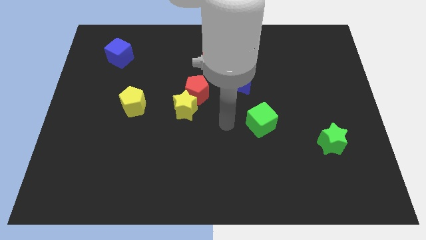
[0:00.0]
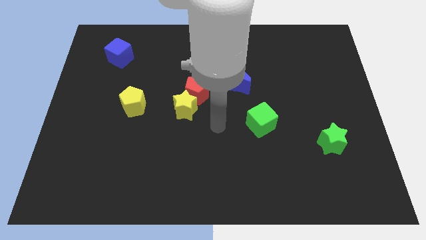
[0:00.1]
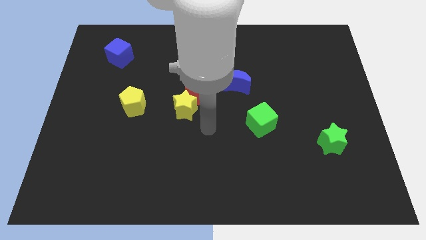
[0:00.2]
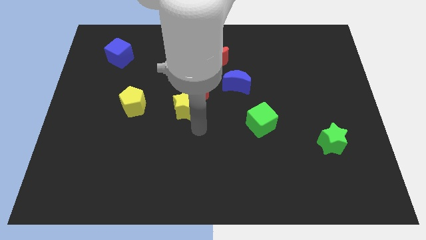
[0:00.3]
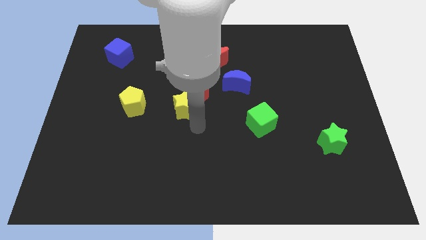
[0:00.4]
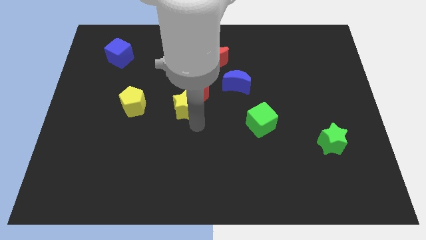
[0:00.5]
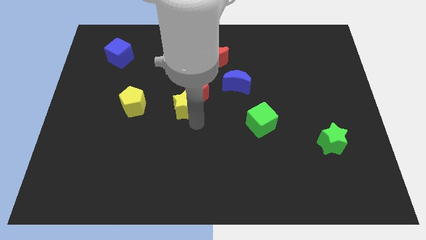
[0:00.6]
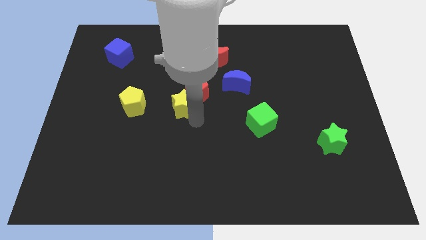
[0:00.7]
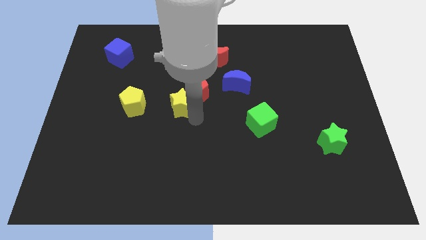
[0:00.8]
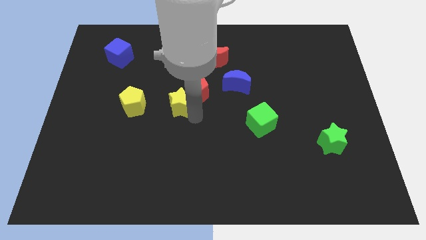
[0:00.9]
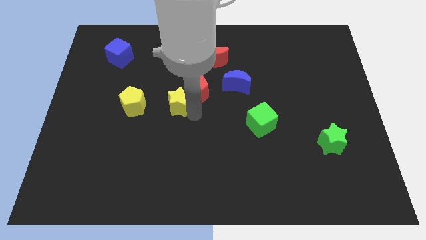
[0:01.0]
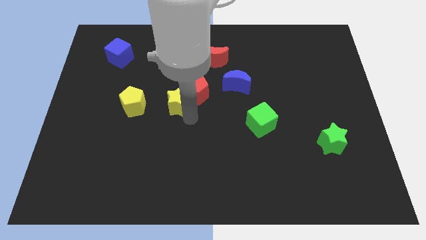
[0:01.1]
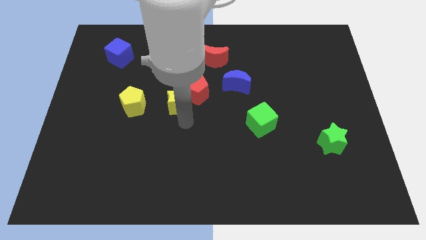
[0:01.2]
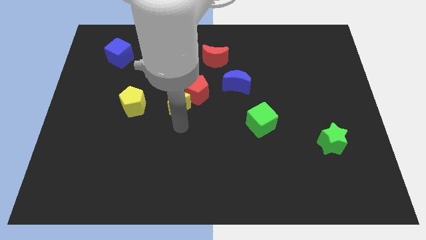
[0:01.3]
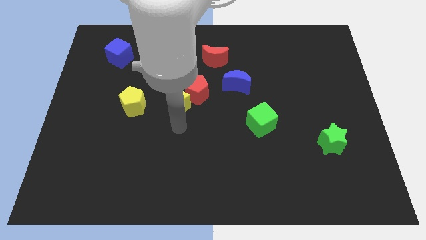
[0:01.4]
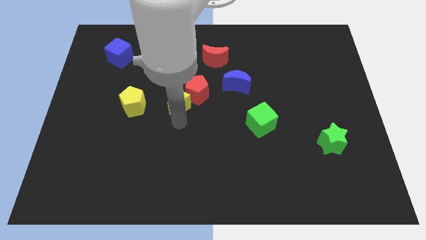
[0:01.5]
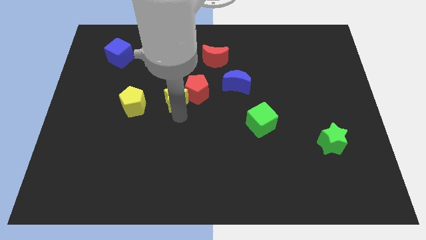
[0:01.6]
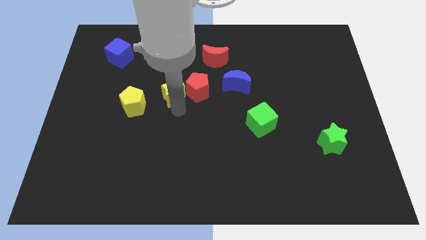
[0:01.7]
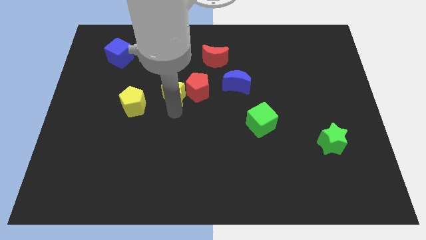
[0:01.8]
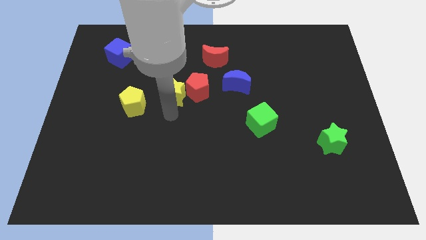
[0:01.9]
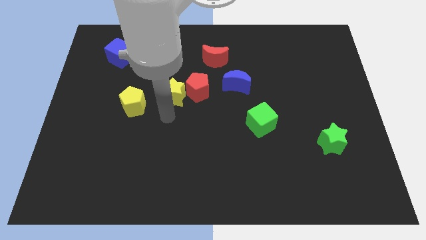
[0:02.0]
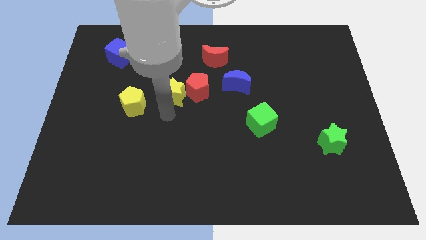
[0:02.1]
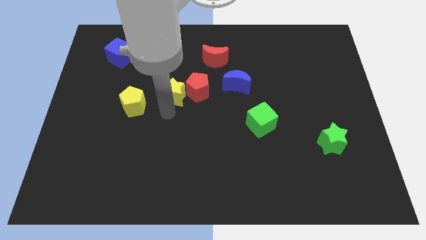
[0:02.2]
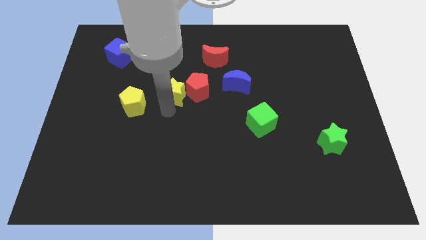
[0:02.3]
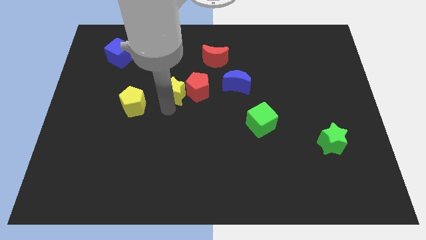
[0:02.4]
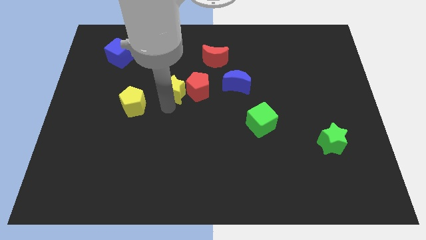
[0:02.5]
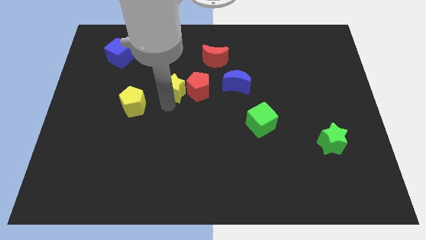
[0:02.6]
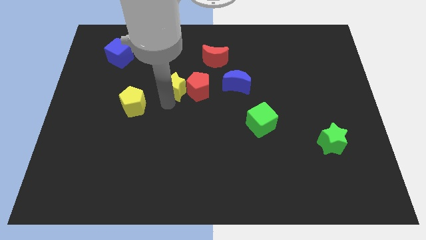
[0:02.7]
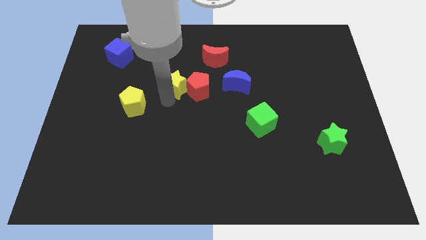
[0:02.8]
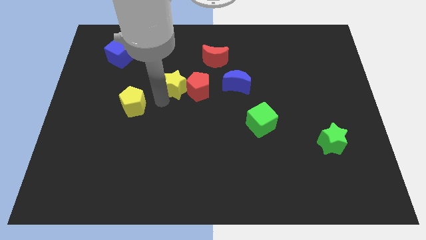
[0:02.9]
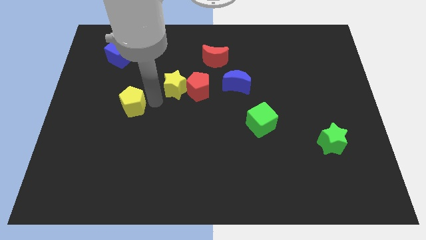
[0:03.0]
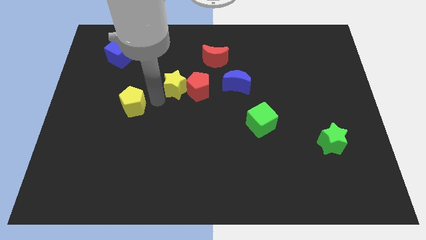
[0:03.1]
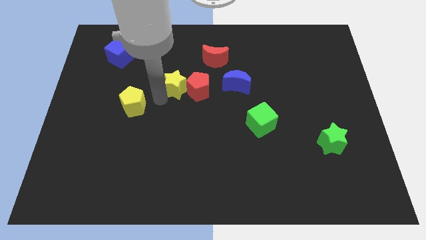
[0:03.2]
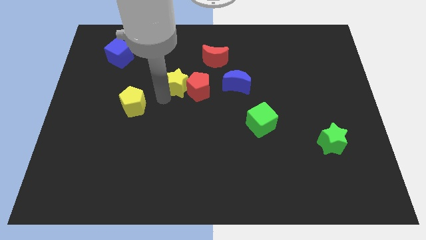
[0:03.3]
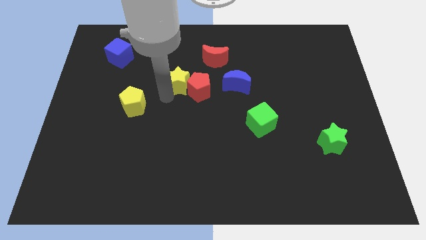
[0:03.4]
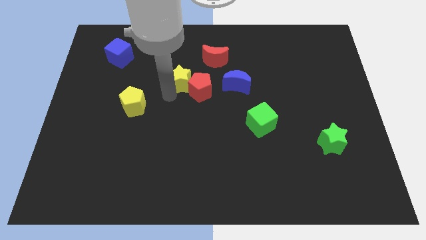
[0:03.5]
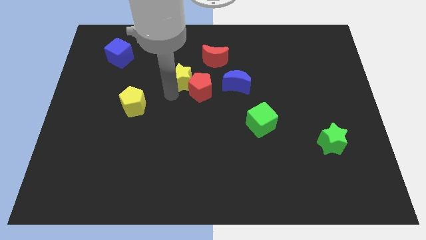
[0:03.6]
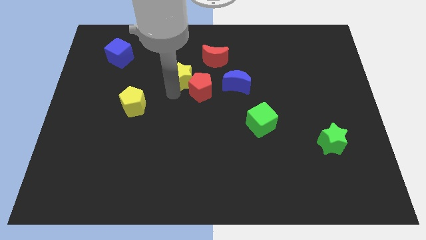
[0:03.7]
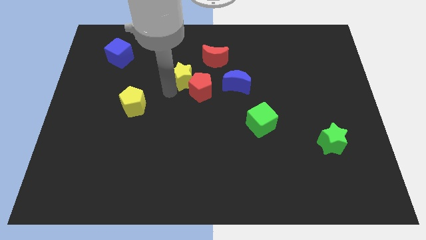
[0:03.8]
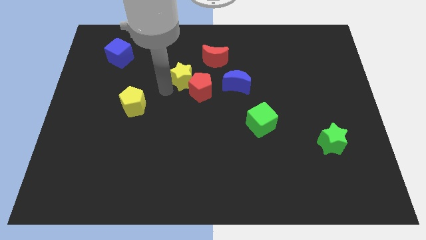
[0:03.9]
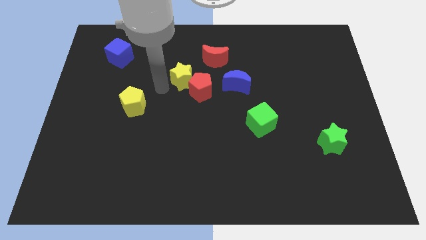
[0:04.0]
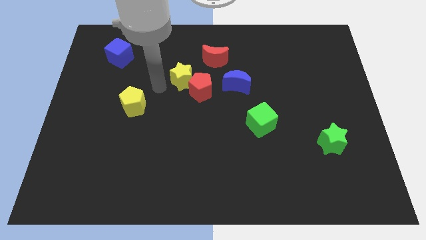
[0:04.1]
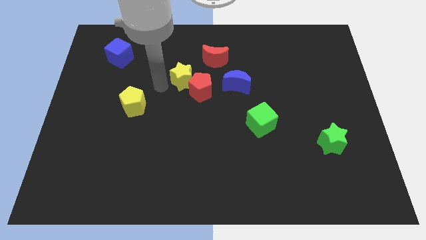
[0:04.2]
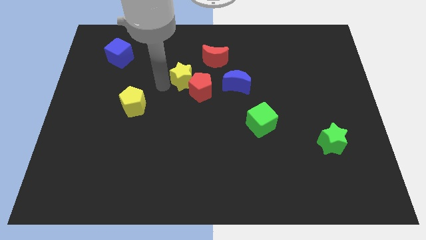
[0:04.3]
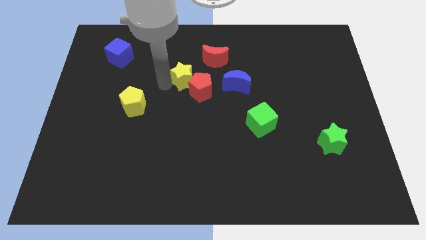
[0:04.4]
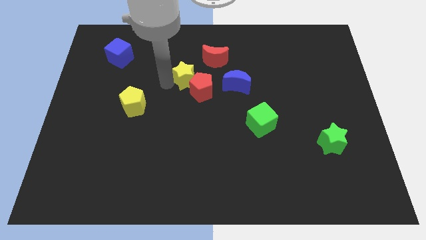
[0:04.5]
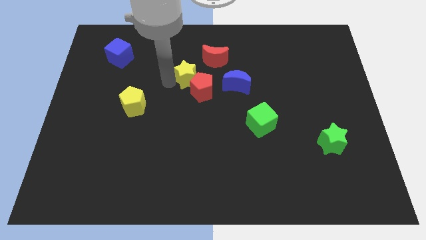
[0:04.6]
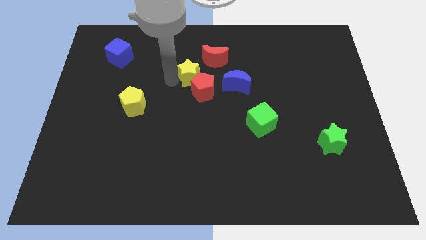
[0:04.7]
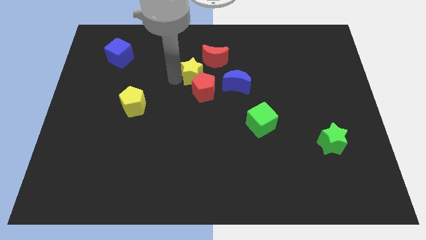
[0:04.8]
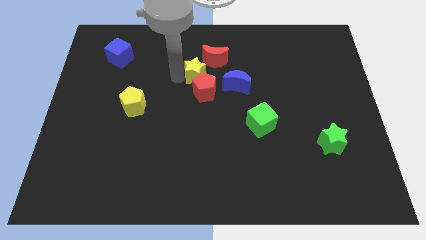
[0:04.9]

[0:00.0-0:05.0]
slightly slide the yellow star up and right diagonally

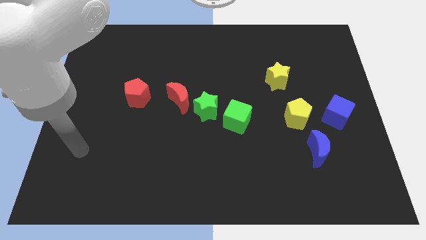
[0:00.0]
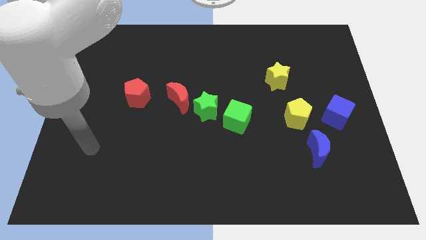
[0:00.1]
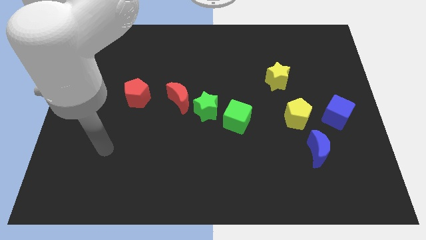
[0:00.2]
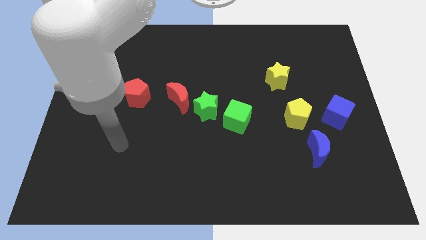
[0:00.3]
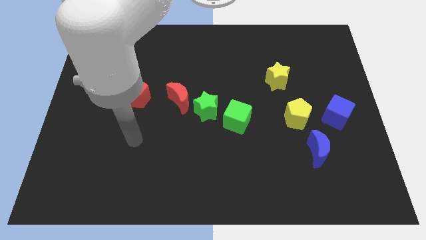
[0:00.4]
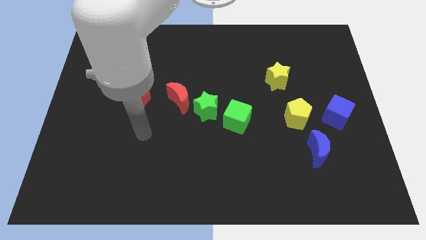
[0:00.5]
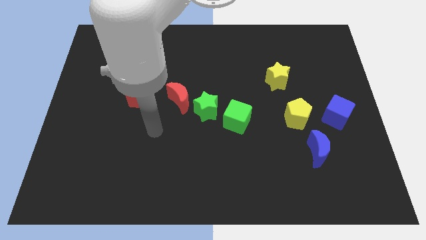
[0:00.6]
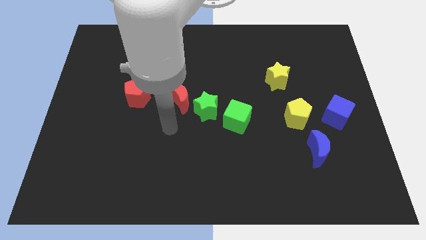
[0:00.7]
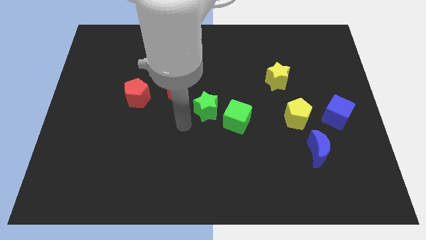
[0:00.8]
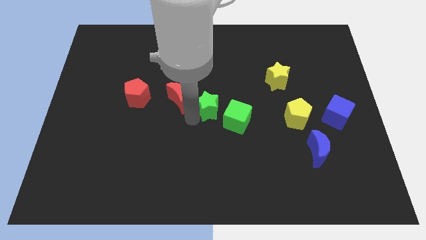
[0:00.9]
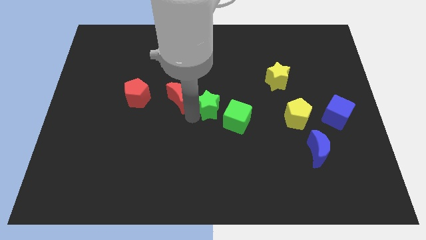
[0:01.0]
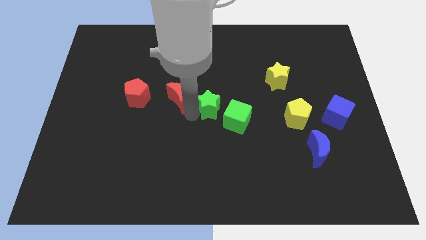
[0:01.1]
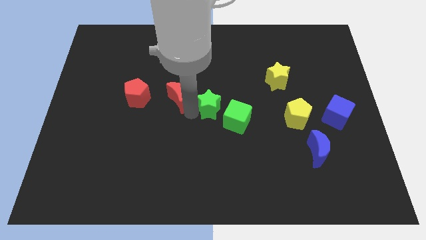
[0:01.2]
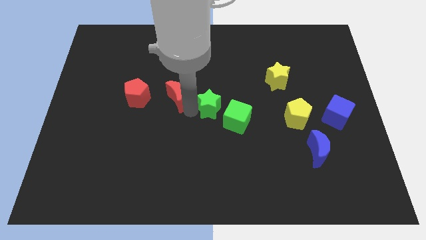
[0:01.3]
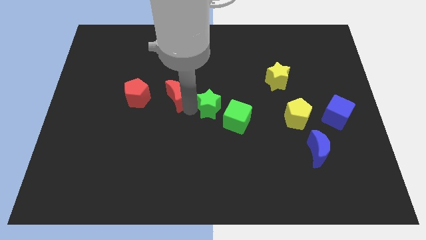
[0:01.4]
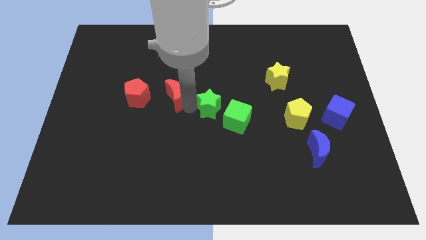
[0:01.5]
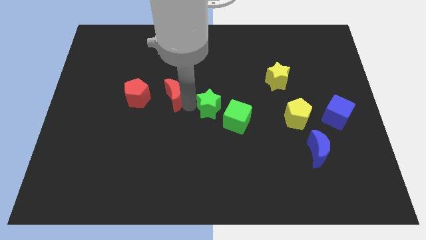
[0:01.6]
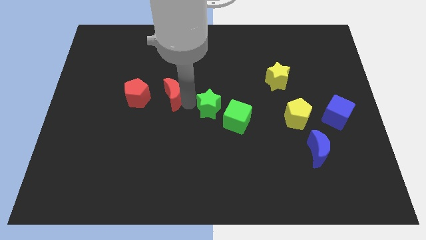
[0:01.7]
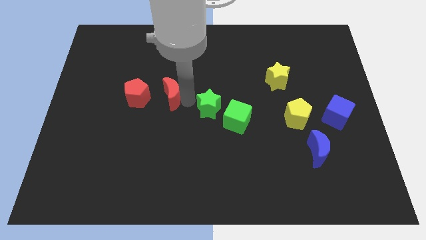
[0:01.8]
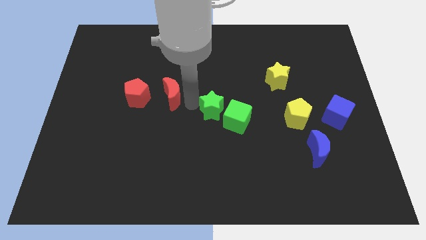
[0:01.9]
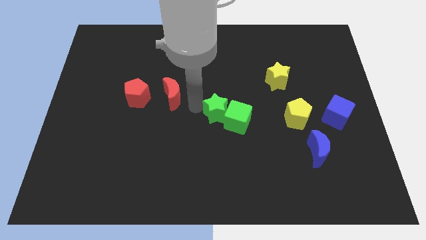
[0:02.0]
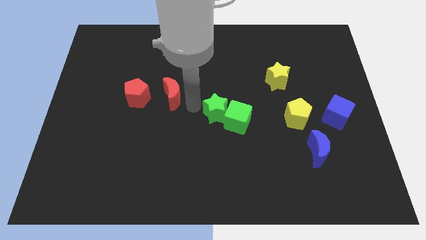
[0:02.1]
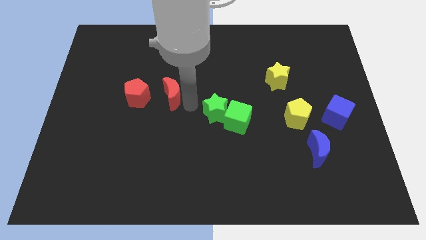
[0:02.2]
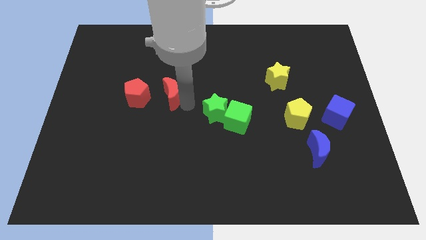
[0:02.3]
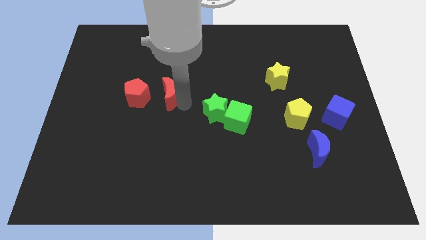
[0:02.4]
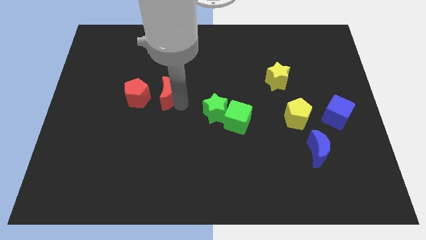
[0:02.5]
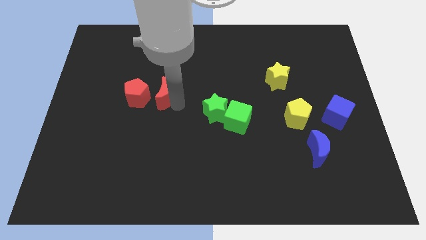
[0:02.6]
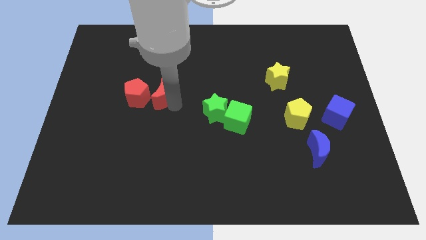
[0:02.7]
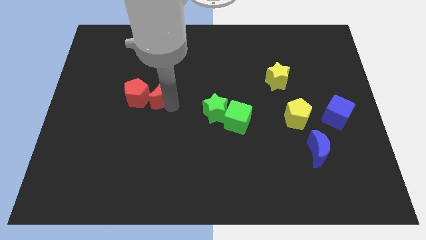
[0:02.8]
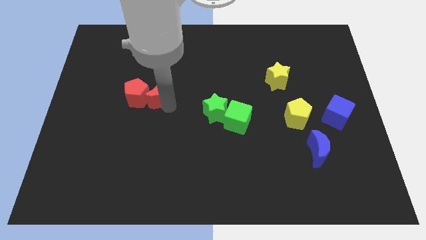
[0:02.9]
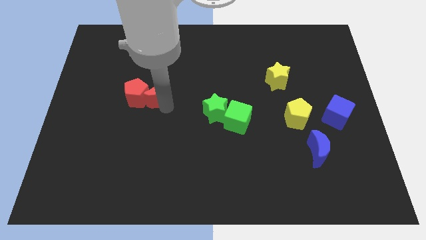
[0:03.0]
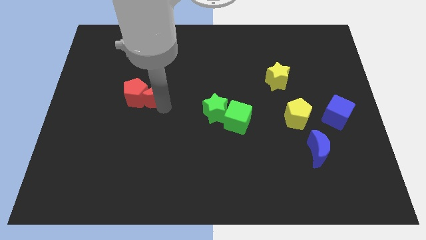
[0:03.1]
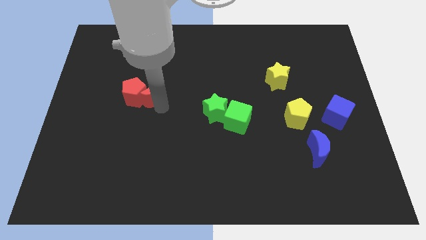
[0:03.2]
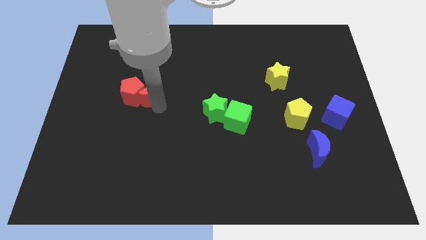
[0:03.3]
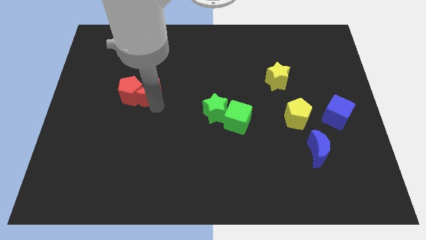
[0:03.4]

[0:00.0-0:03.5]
move the red moon a little to the left
